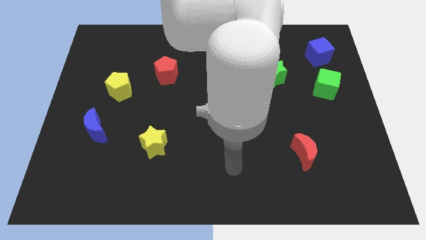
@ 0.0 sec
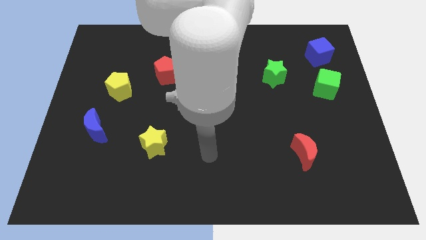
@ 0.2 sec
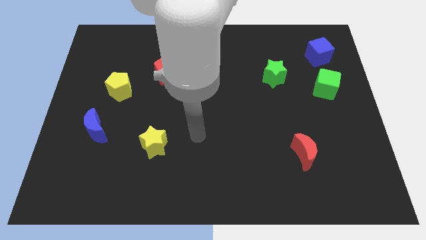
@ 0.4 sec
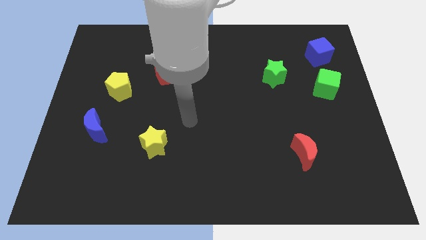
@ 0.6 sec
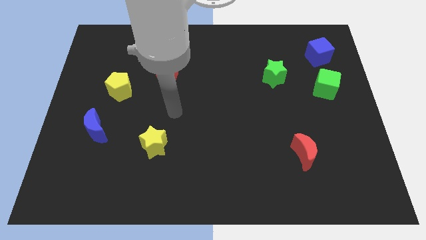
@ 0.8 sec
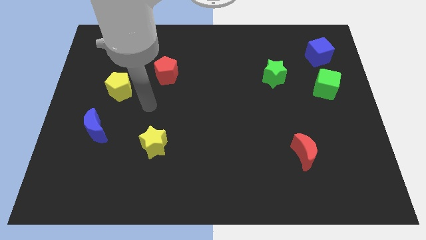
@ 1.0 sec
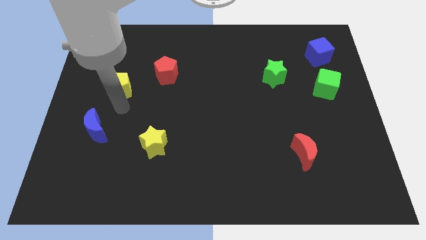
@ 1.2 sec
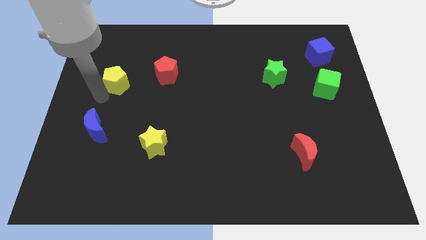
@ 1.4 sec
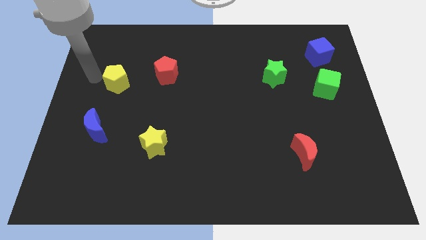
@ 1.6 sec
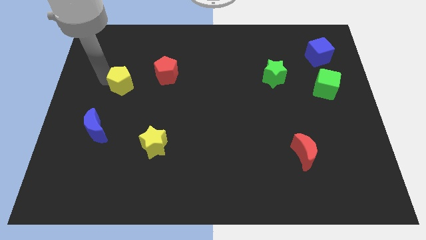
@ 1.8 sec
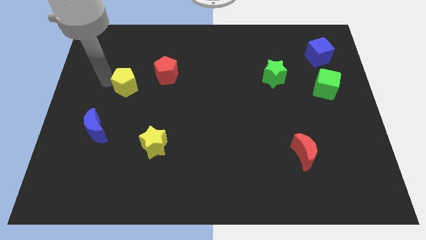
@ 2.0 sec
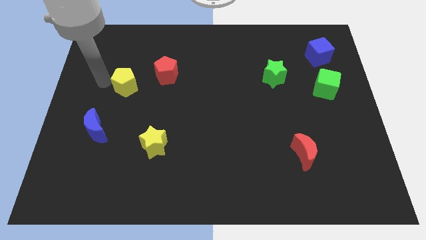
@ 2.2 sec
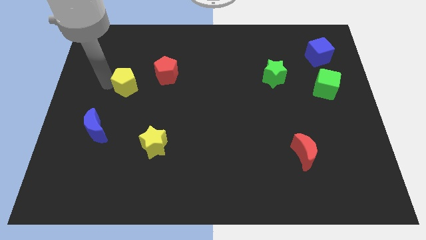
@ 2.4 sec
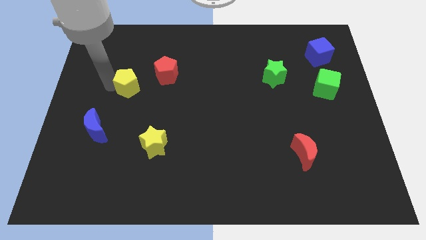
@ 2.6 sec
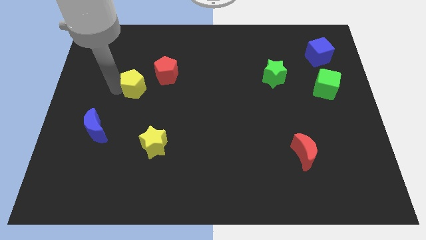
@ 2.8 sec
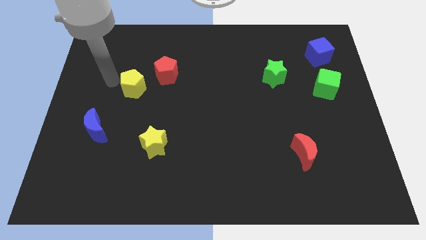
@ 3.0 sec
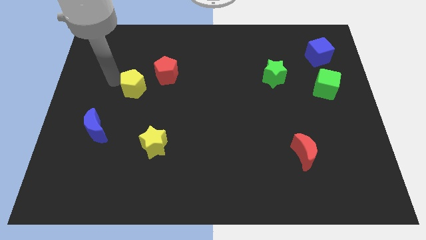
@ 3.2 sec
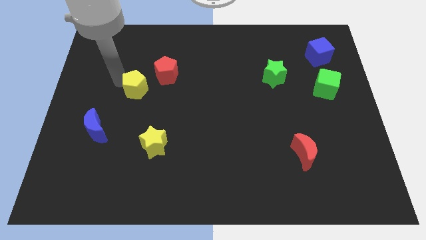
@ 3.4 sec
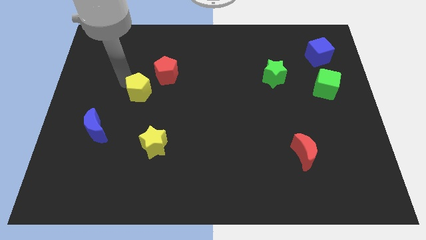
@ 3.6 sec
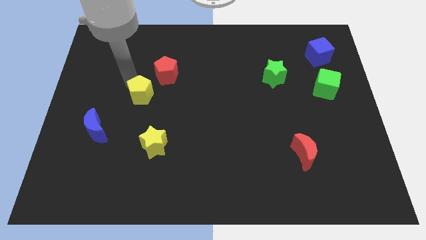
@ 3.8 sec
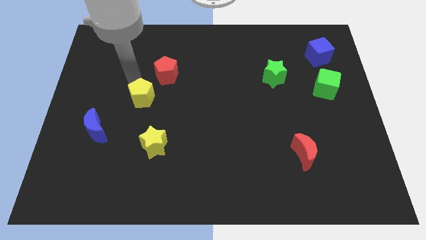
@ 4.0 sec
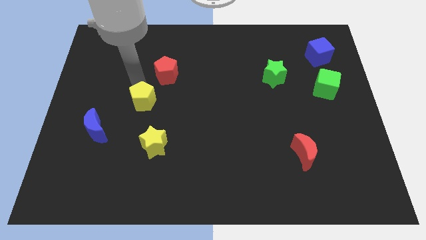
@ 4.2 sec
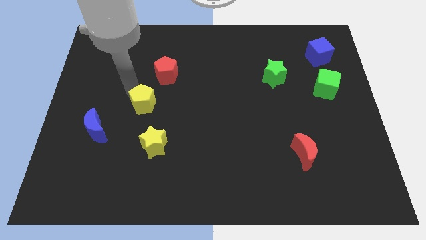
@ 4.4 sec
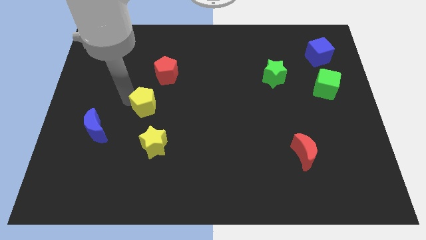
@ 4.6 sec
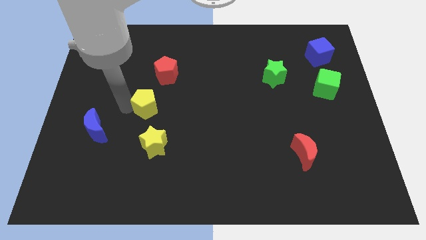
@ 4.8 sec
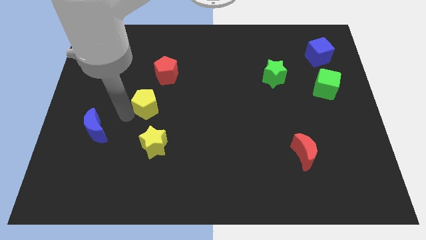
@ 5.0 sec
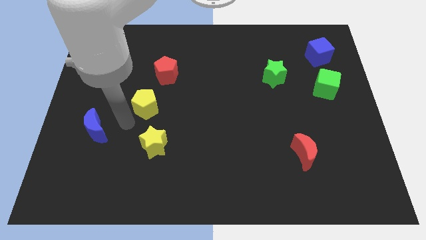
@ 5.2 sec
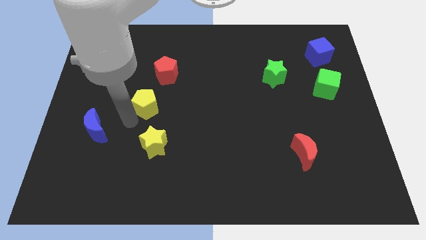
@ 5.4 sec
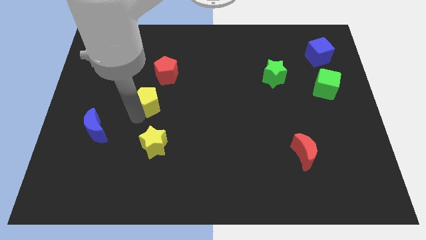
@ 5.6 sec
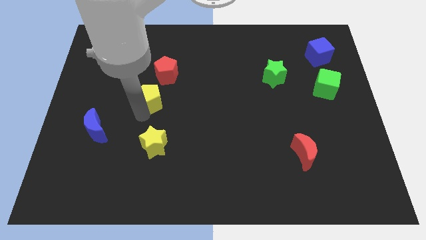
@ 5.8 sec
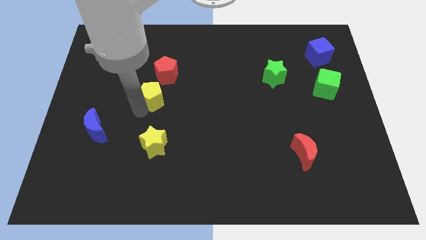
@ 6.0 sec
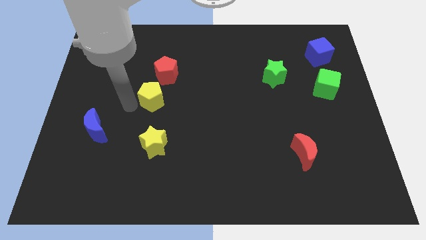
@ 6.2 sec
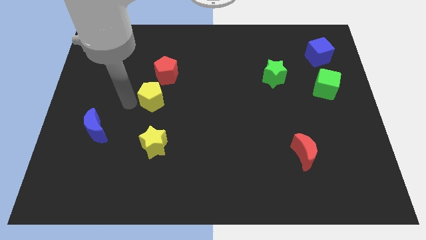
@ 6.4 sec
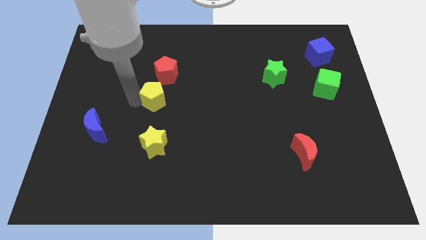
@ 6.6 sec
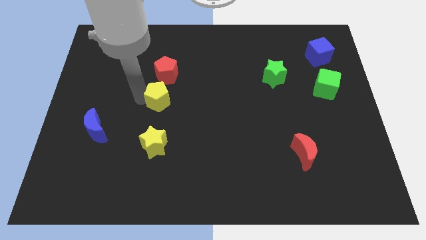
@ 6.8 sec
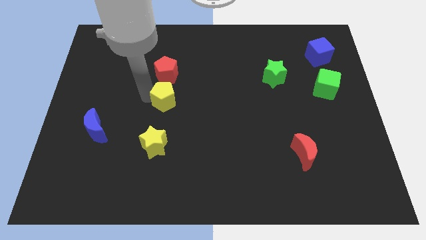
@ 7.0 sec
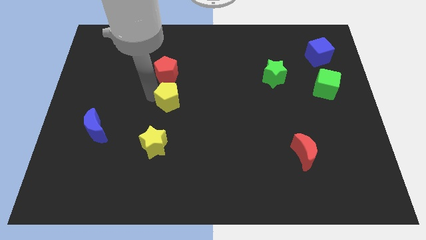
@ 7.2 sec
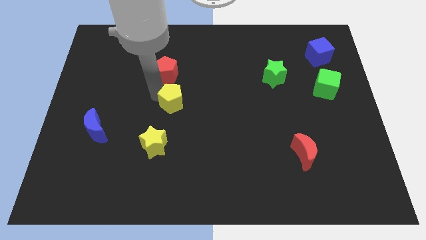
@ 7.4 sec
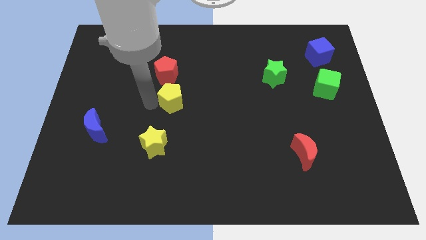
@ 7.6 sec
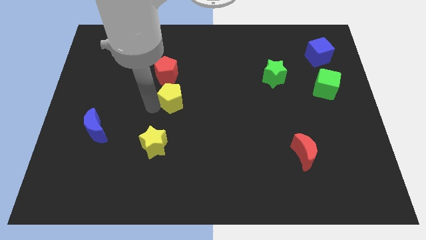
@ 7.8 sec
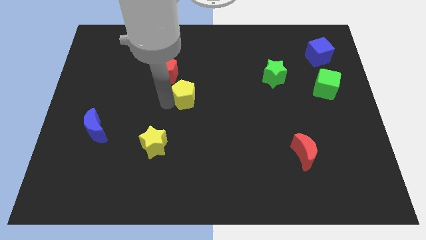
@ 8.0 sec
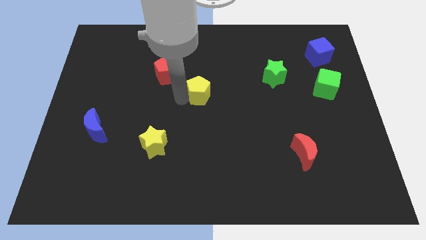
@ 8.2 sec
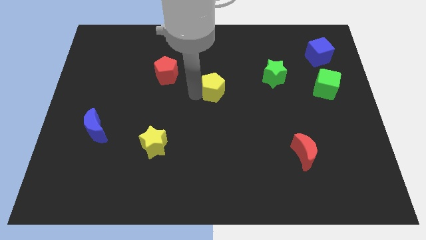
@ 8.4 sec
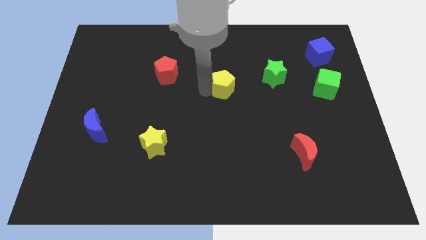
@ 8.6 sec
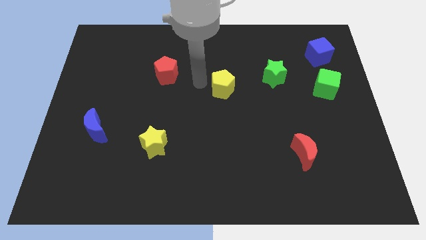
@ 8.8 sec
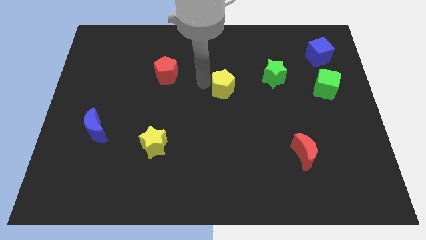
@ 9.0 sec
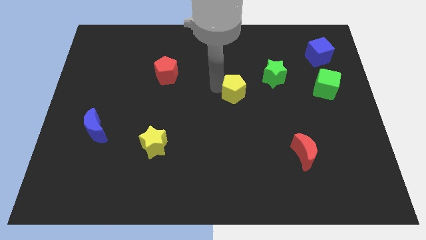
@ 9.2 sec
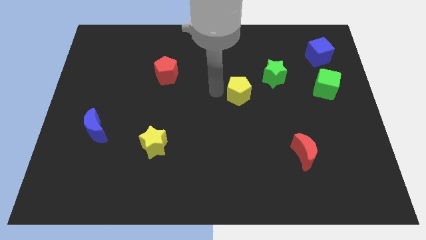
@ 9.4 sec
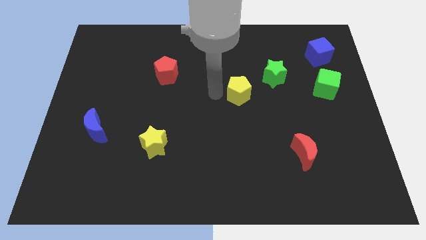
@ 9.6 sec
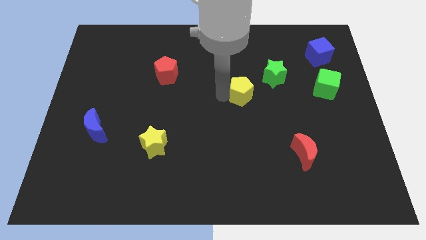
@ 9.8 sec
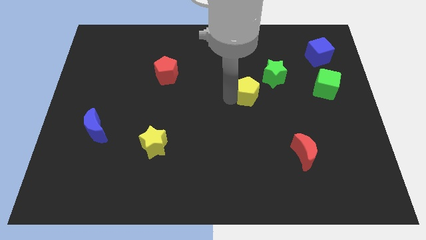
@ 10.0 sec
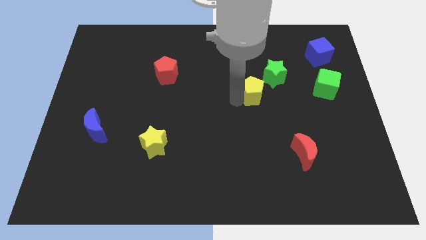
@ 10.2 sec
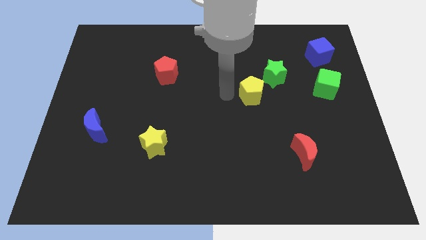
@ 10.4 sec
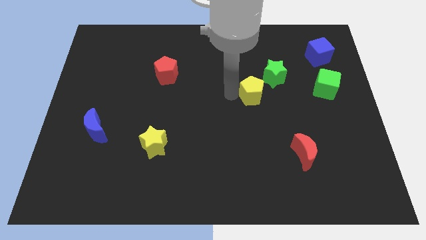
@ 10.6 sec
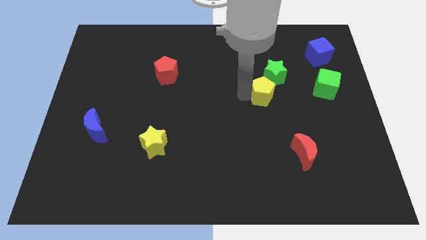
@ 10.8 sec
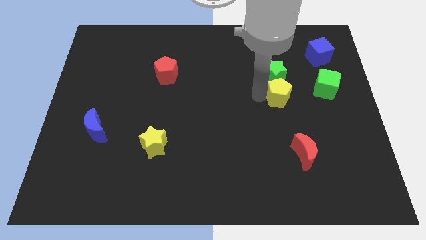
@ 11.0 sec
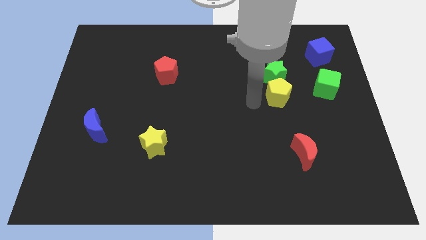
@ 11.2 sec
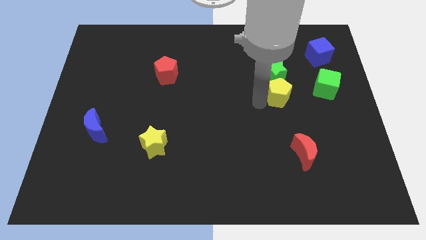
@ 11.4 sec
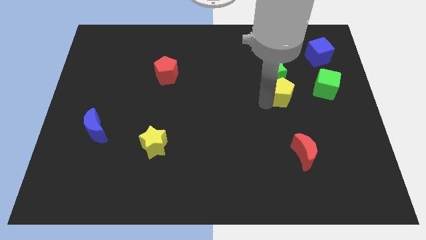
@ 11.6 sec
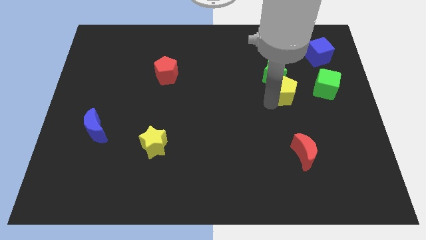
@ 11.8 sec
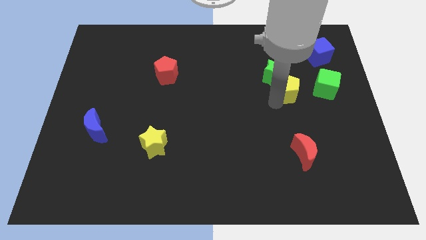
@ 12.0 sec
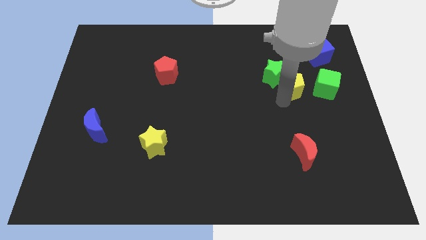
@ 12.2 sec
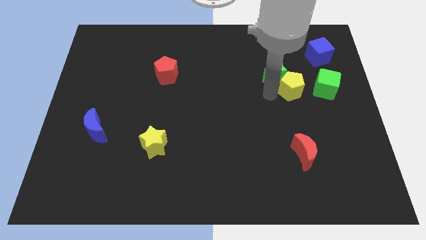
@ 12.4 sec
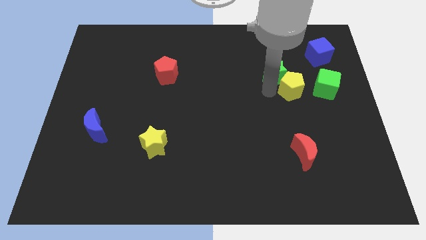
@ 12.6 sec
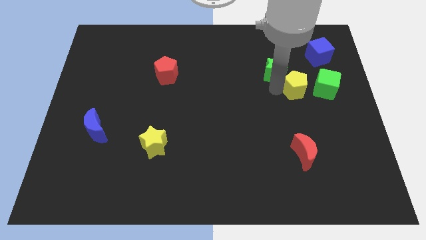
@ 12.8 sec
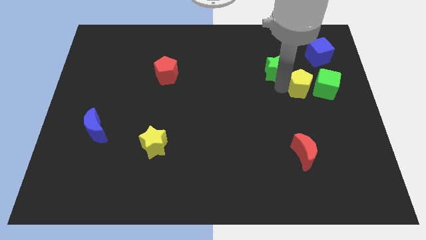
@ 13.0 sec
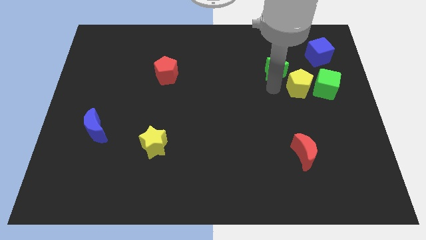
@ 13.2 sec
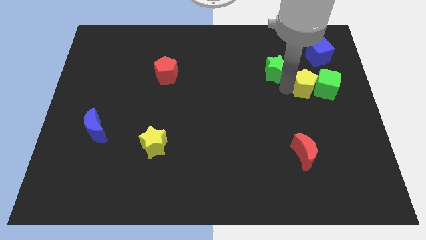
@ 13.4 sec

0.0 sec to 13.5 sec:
move the yellow pentagon close to the green cube
